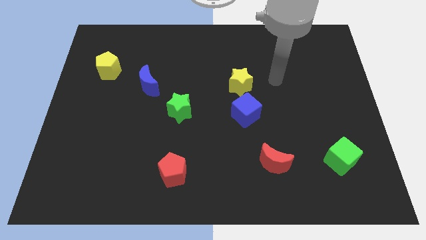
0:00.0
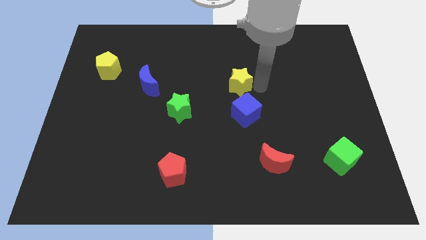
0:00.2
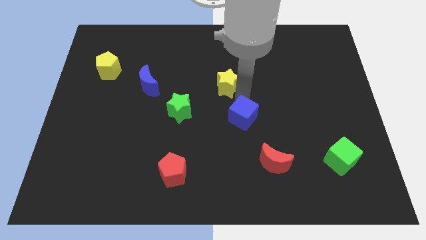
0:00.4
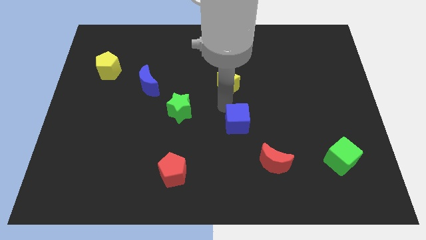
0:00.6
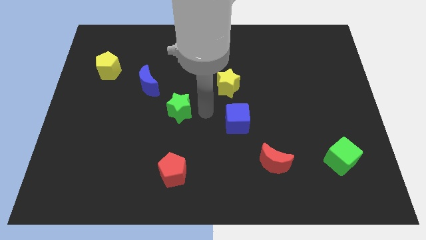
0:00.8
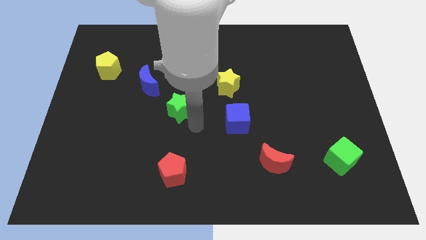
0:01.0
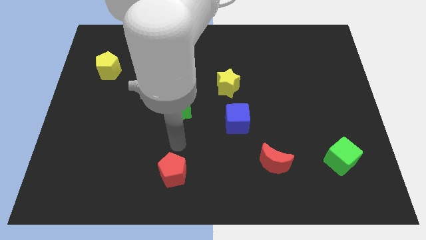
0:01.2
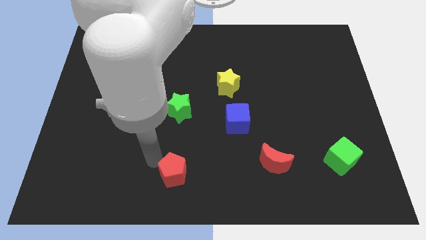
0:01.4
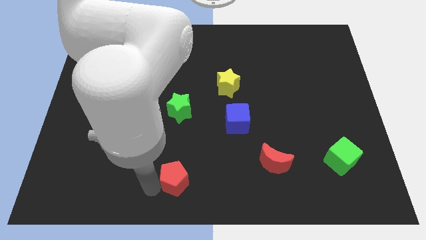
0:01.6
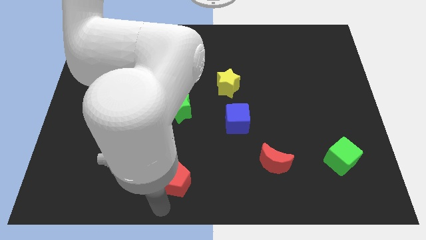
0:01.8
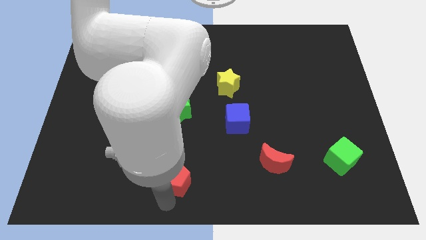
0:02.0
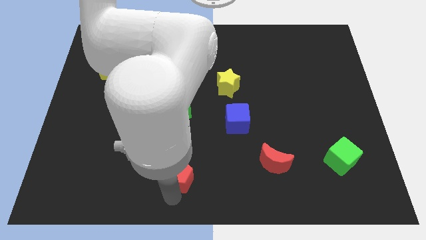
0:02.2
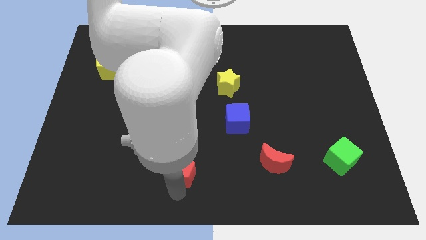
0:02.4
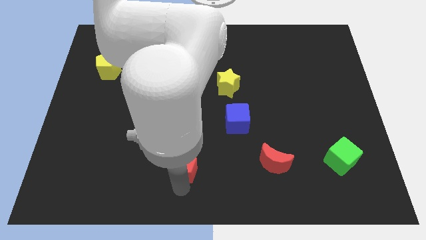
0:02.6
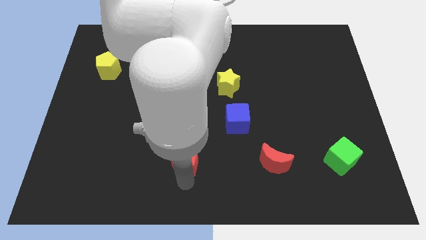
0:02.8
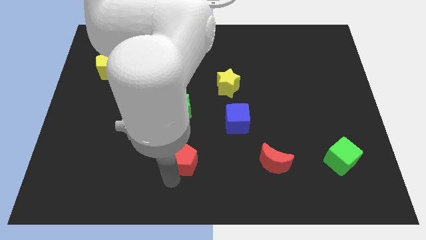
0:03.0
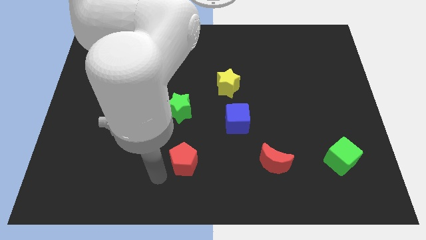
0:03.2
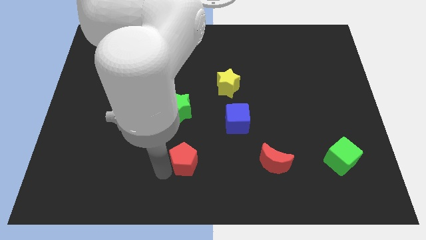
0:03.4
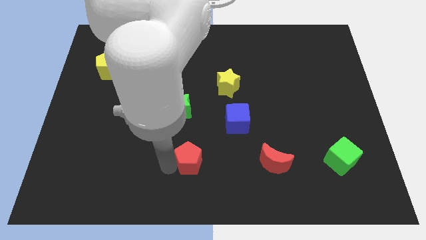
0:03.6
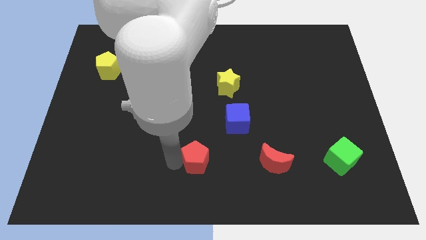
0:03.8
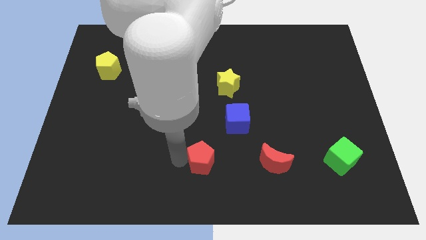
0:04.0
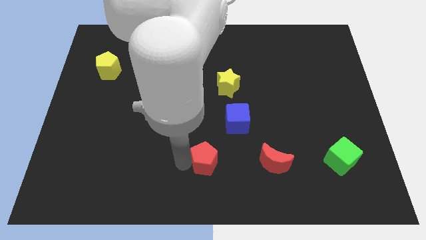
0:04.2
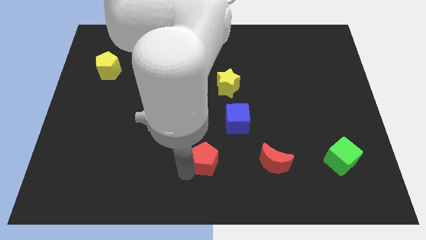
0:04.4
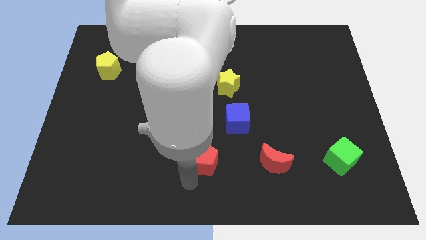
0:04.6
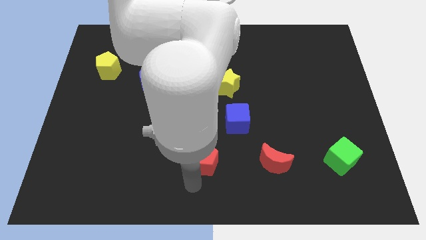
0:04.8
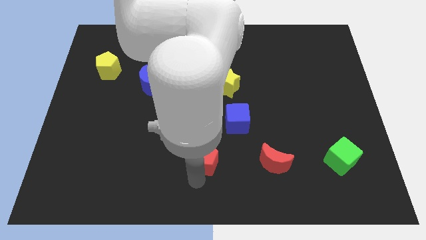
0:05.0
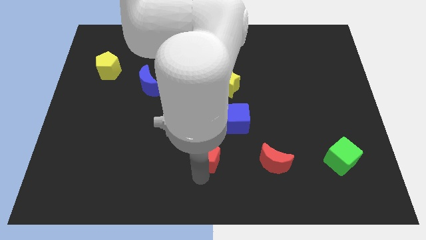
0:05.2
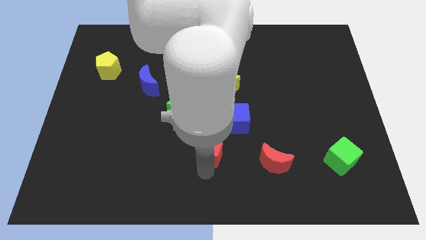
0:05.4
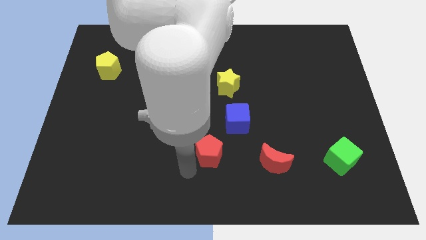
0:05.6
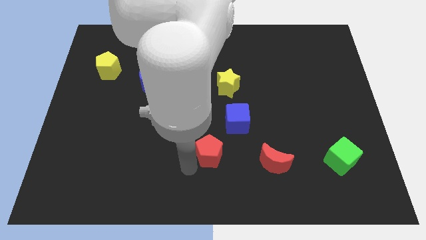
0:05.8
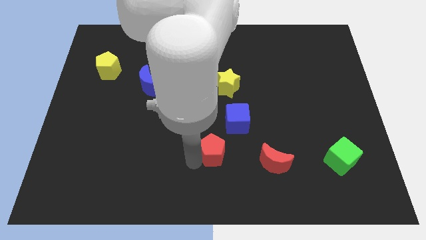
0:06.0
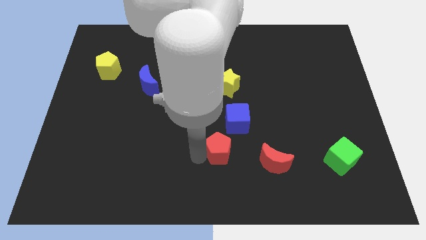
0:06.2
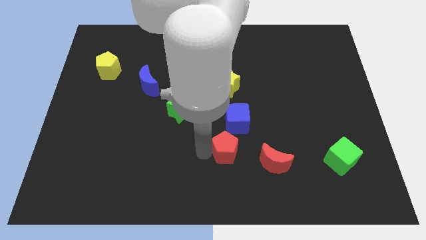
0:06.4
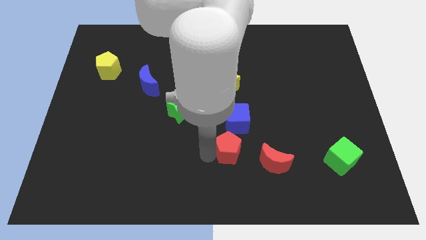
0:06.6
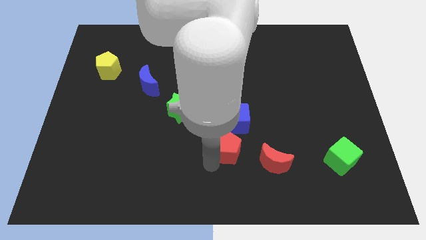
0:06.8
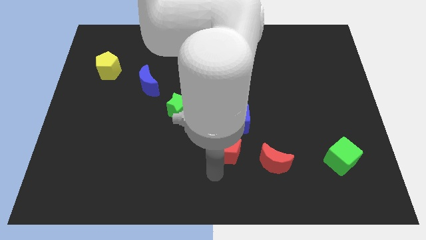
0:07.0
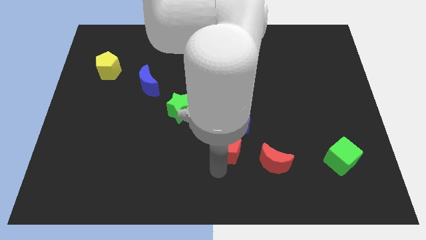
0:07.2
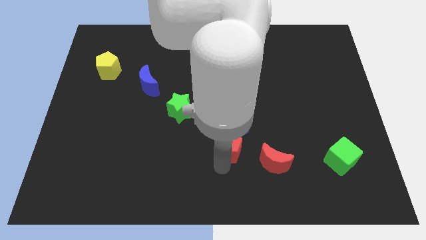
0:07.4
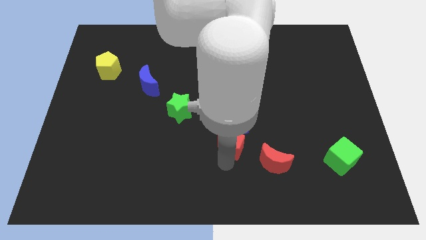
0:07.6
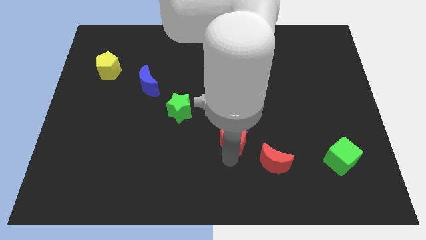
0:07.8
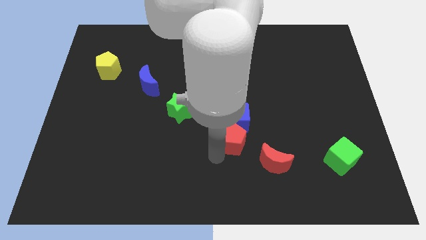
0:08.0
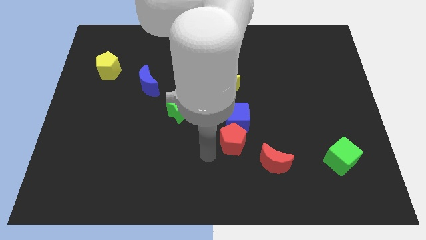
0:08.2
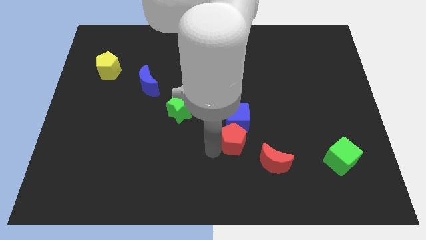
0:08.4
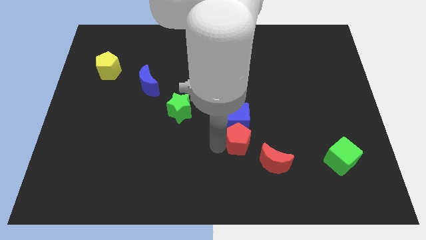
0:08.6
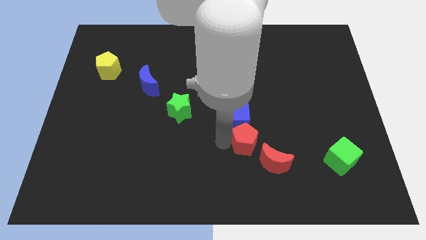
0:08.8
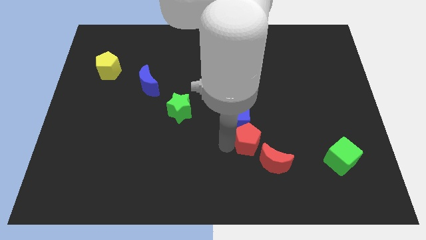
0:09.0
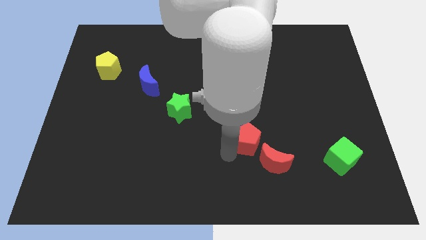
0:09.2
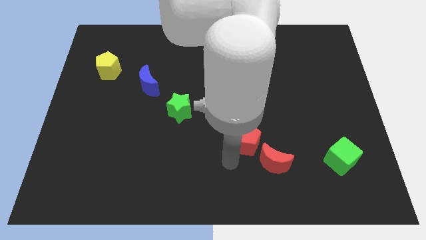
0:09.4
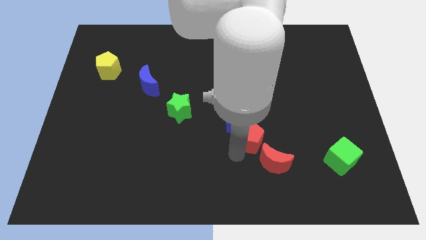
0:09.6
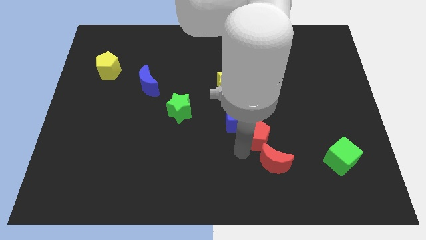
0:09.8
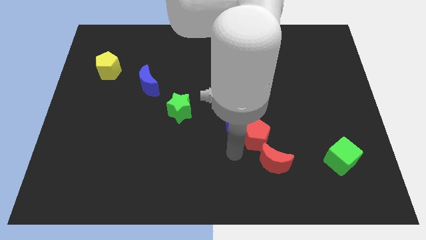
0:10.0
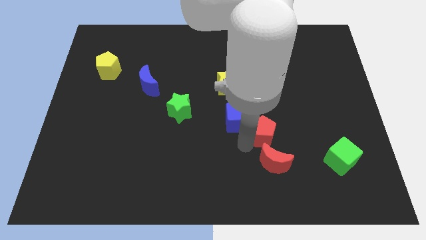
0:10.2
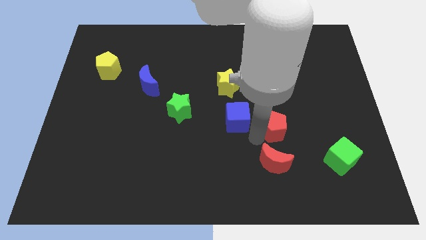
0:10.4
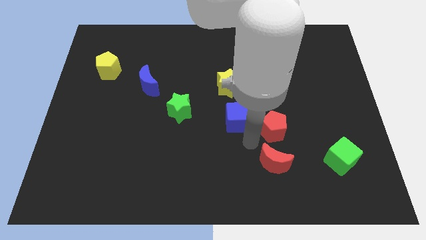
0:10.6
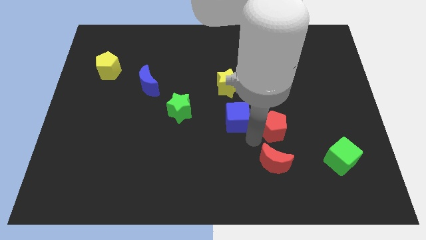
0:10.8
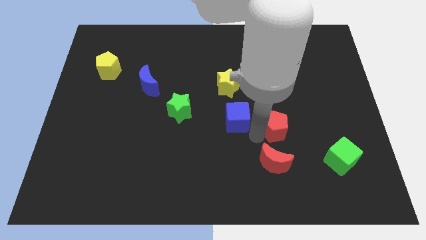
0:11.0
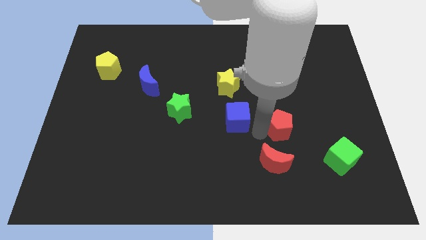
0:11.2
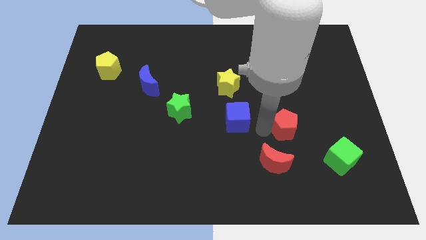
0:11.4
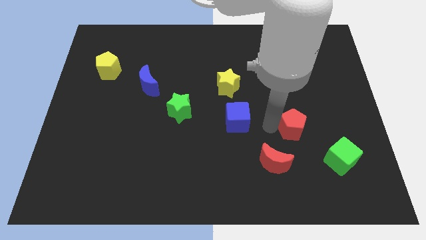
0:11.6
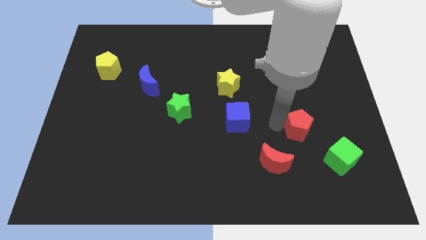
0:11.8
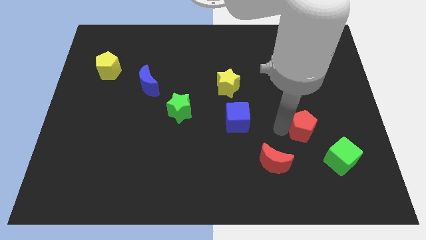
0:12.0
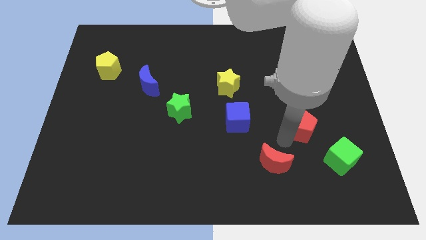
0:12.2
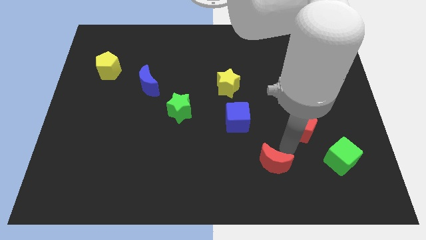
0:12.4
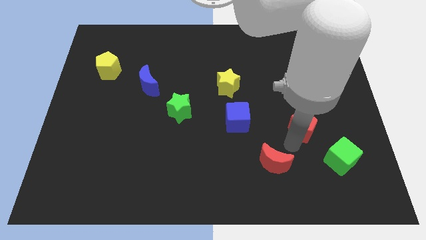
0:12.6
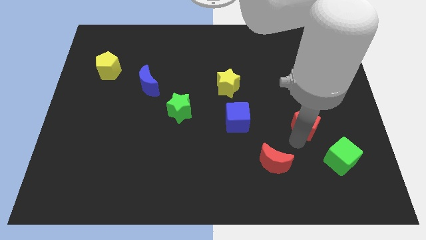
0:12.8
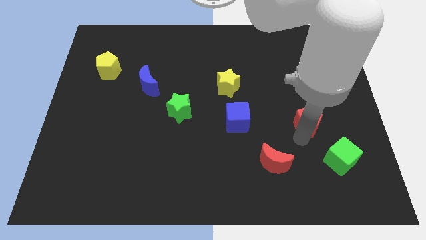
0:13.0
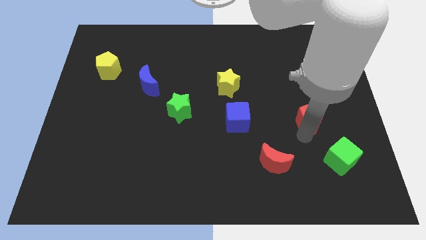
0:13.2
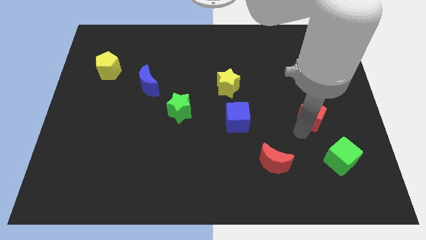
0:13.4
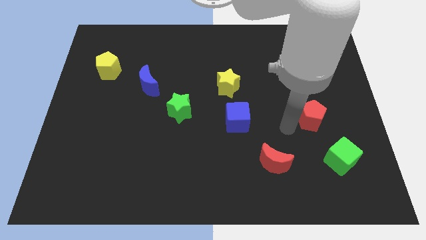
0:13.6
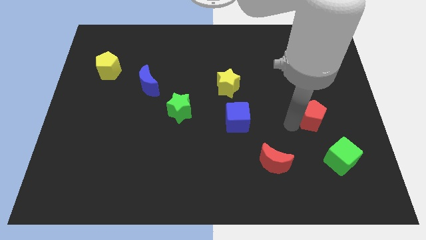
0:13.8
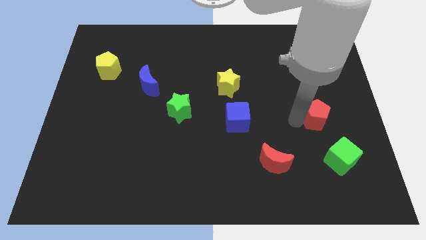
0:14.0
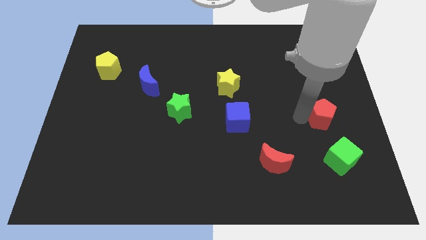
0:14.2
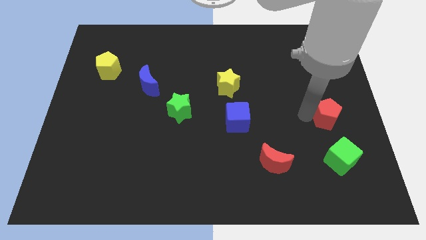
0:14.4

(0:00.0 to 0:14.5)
slide the red pentagon to the center right
